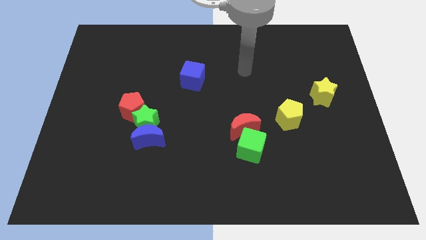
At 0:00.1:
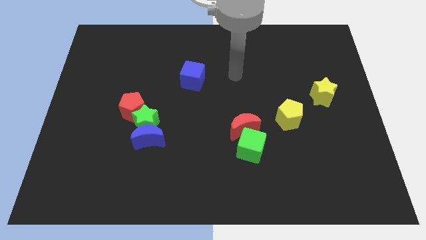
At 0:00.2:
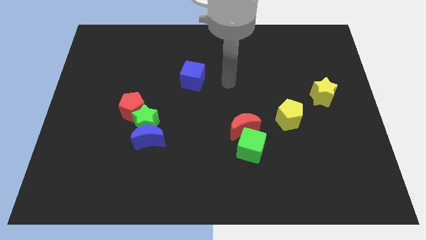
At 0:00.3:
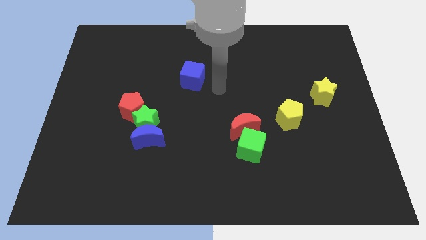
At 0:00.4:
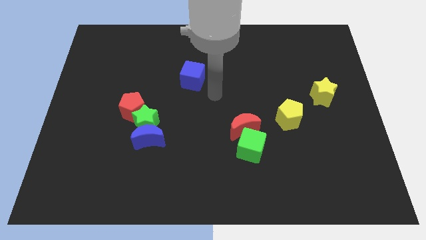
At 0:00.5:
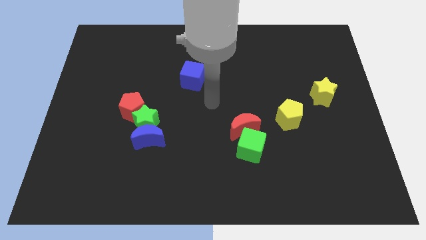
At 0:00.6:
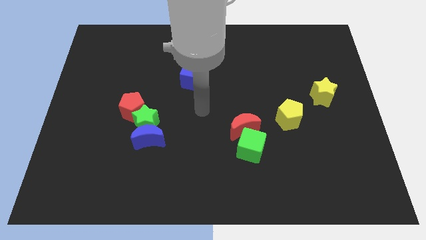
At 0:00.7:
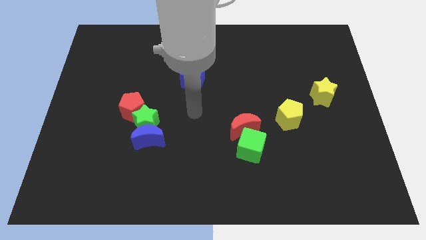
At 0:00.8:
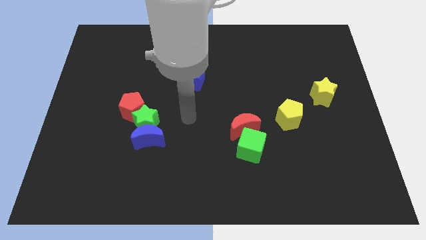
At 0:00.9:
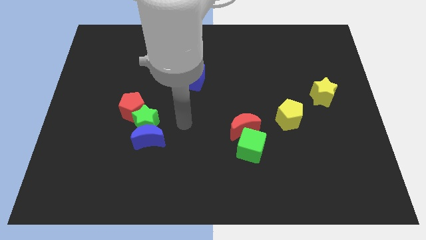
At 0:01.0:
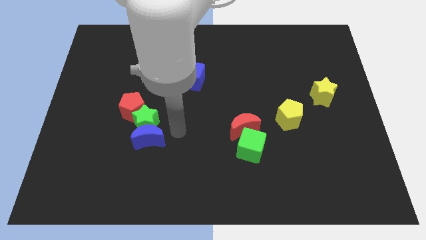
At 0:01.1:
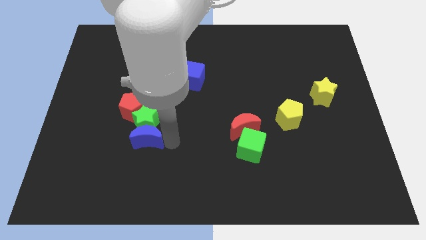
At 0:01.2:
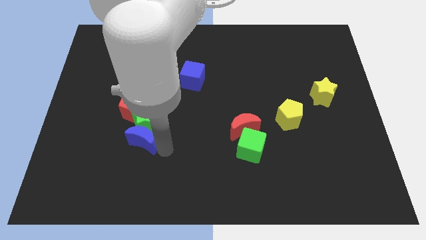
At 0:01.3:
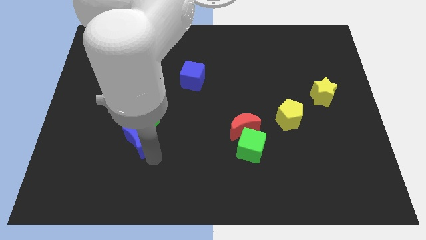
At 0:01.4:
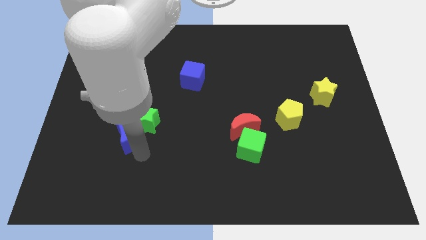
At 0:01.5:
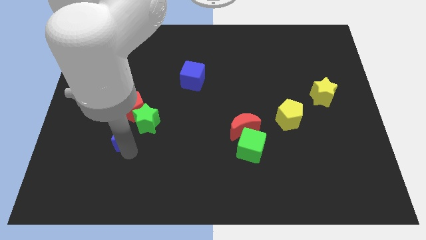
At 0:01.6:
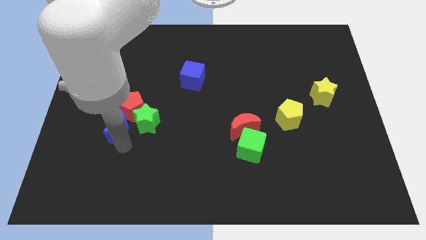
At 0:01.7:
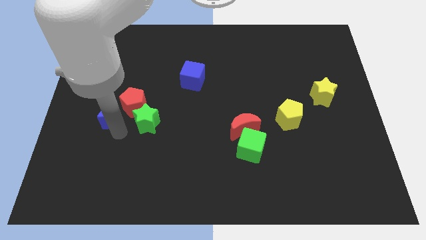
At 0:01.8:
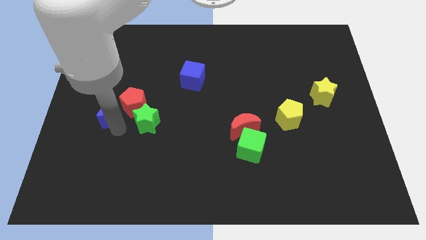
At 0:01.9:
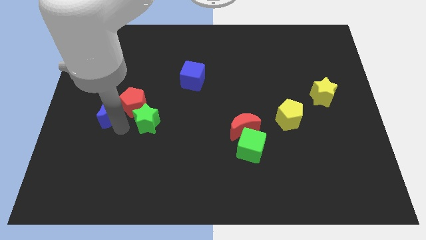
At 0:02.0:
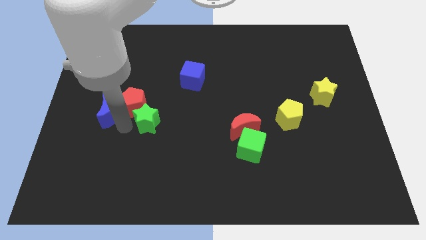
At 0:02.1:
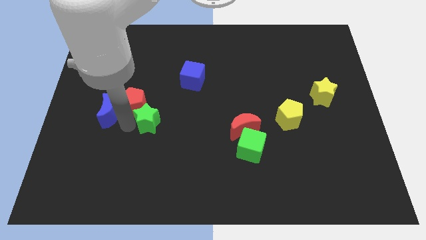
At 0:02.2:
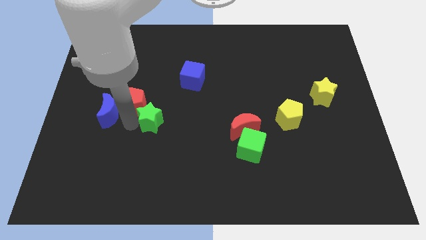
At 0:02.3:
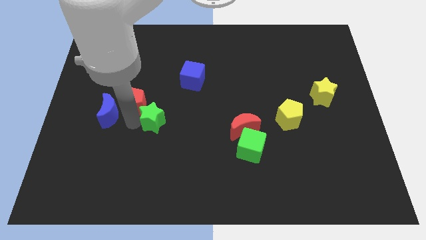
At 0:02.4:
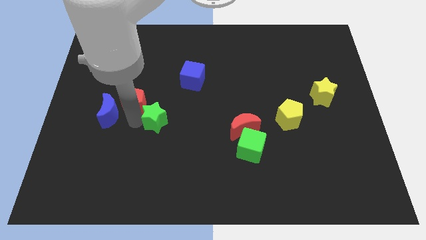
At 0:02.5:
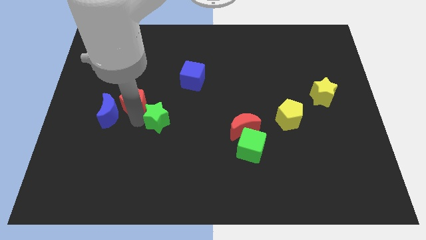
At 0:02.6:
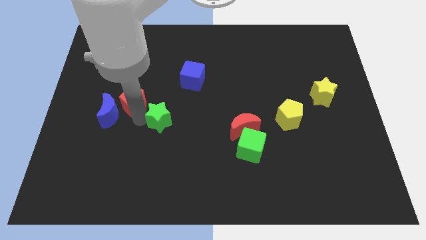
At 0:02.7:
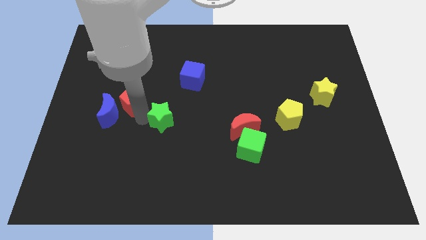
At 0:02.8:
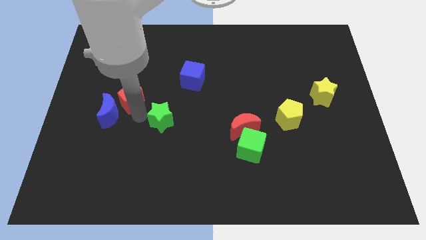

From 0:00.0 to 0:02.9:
pull the green star apart from the blue moon and red pentagon

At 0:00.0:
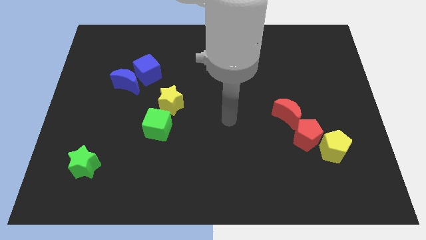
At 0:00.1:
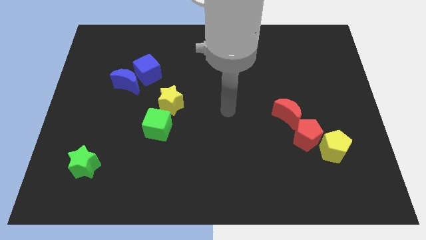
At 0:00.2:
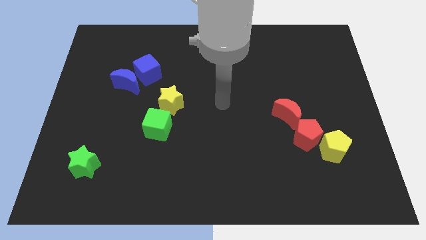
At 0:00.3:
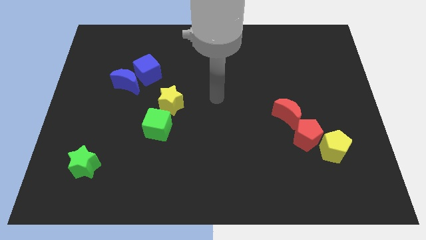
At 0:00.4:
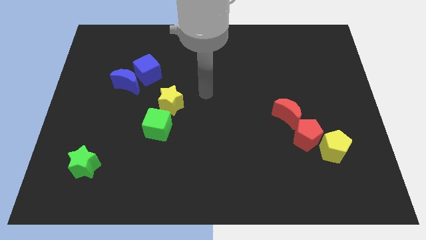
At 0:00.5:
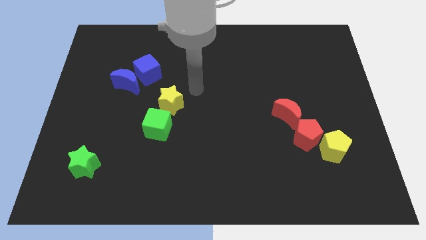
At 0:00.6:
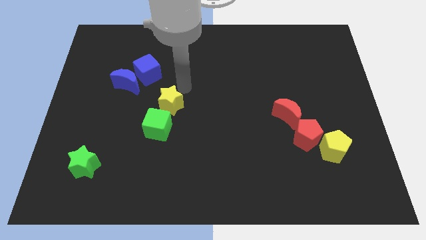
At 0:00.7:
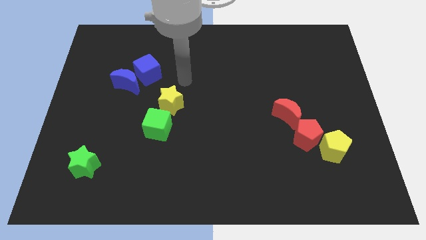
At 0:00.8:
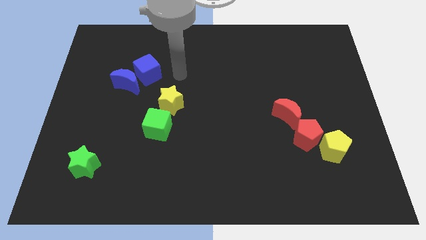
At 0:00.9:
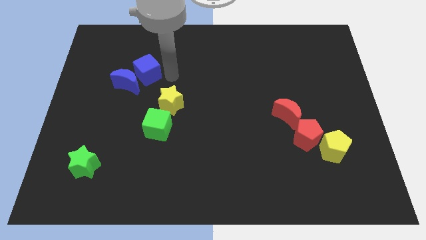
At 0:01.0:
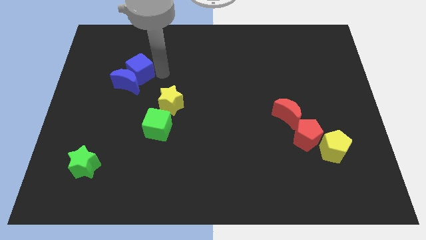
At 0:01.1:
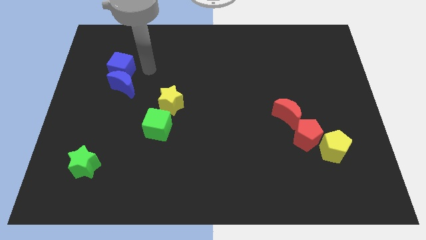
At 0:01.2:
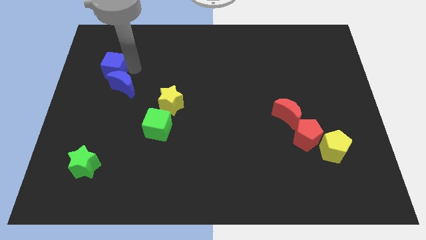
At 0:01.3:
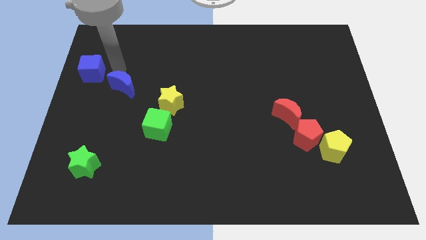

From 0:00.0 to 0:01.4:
move the blue moon away from the blue cube

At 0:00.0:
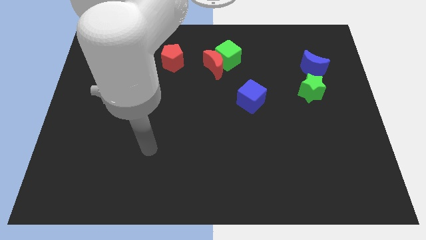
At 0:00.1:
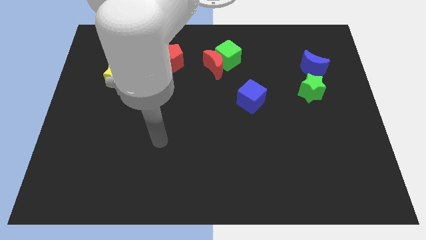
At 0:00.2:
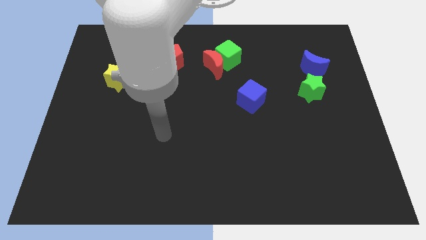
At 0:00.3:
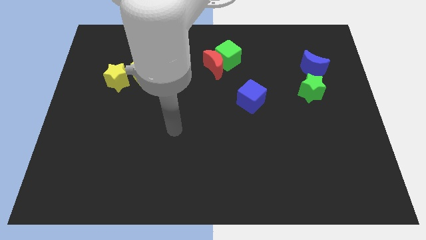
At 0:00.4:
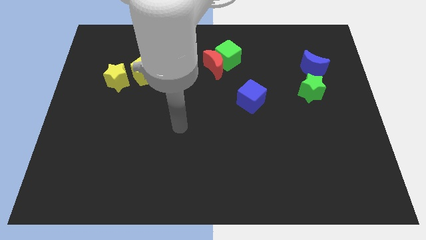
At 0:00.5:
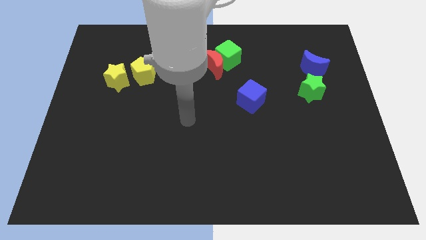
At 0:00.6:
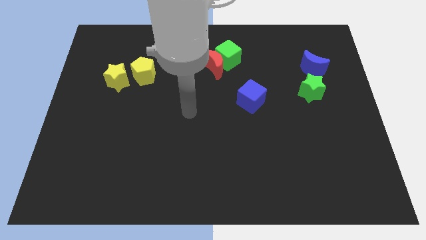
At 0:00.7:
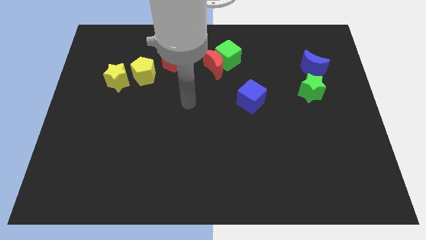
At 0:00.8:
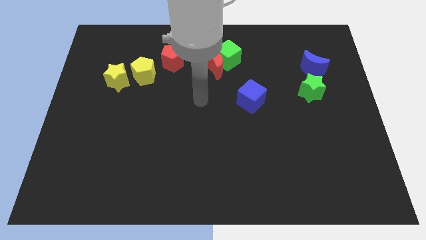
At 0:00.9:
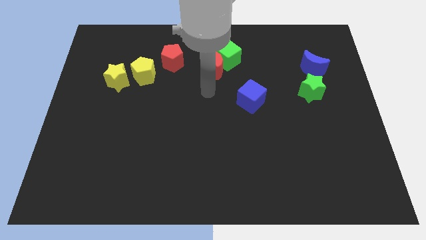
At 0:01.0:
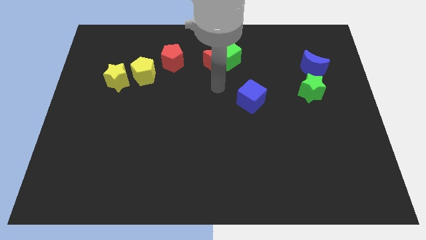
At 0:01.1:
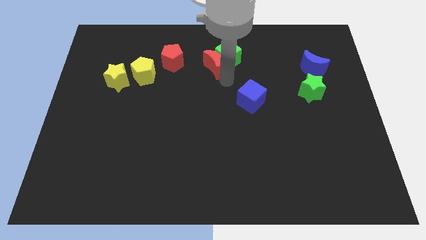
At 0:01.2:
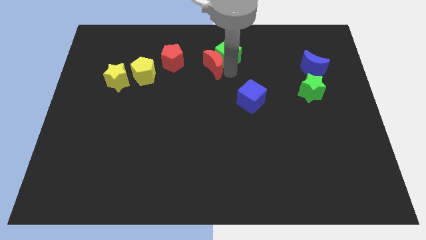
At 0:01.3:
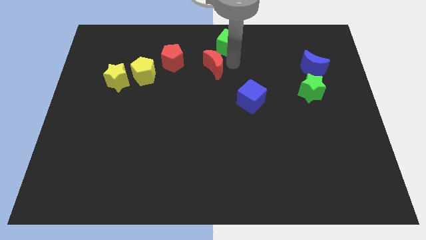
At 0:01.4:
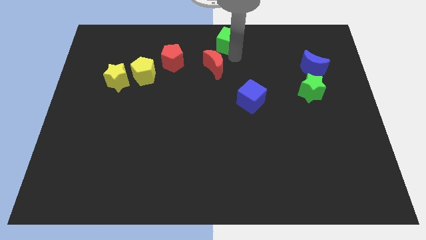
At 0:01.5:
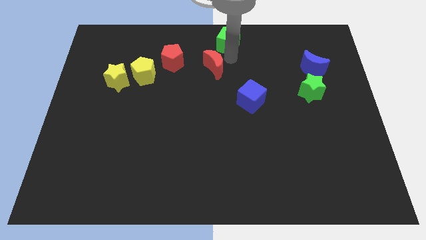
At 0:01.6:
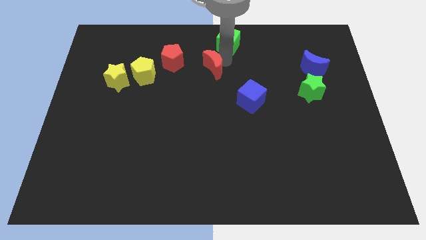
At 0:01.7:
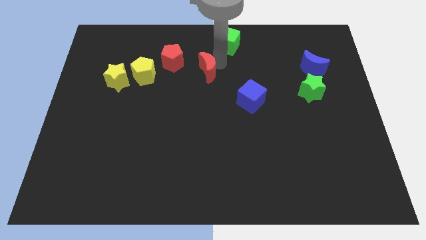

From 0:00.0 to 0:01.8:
pull the red moon apart from the green cube

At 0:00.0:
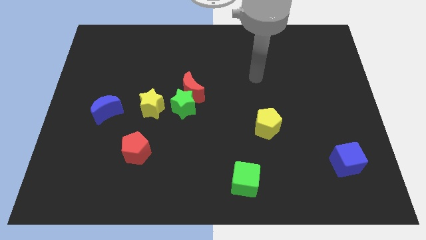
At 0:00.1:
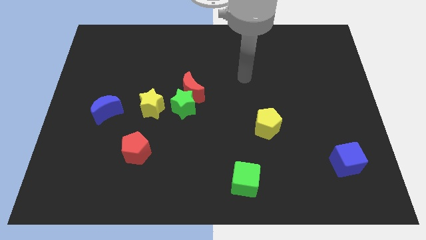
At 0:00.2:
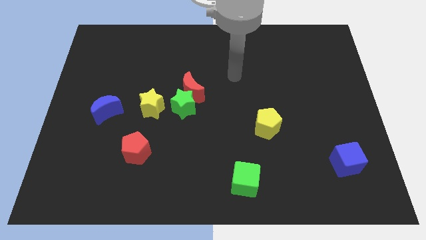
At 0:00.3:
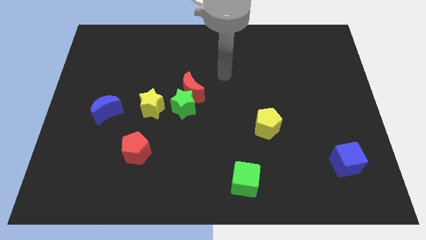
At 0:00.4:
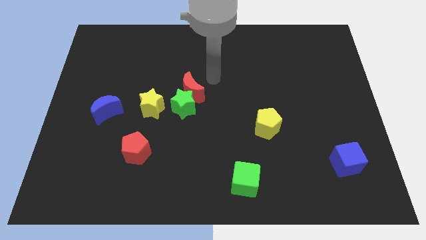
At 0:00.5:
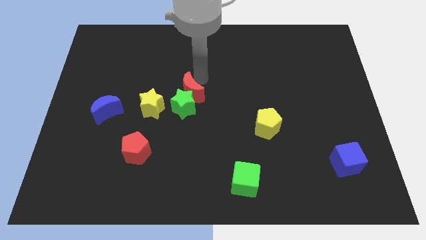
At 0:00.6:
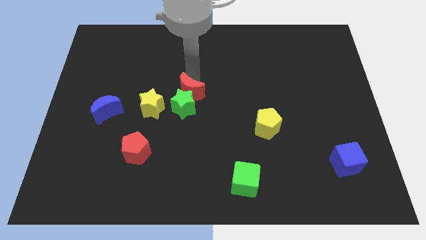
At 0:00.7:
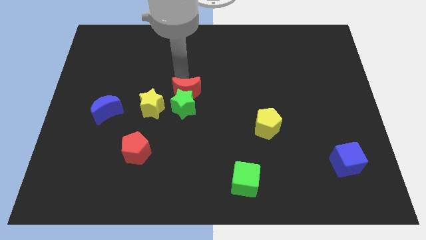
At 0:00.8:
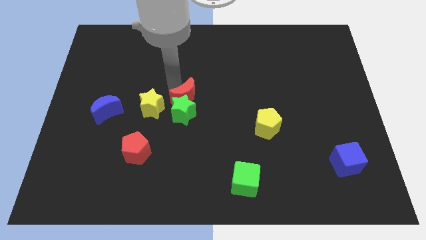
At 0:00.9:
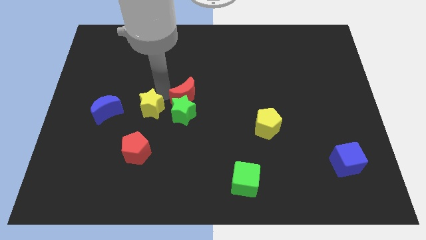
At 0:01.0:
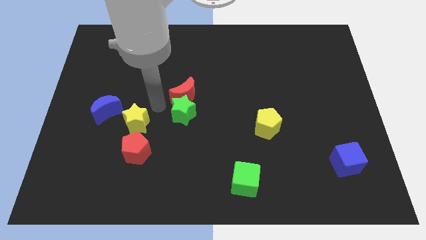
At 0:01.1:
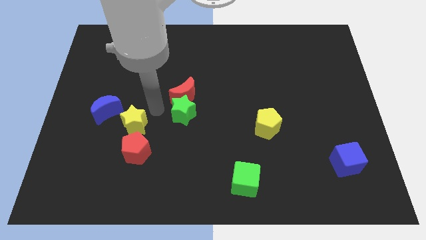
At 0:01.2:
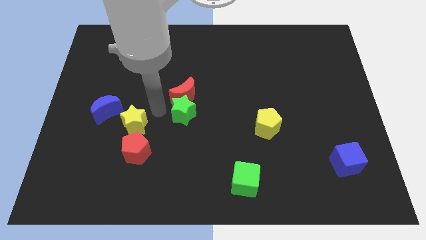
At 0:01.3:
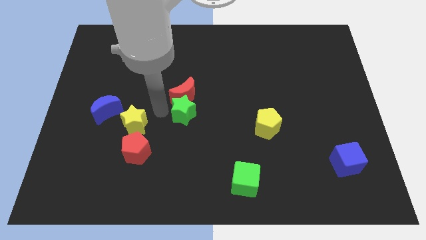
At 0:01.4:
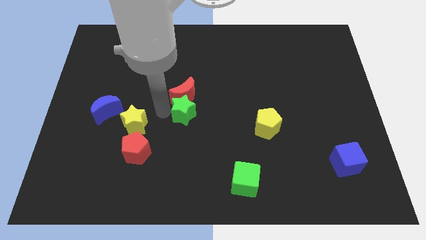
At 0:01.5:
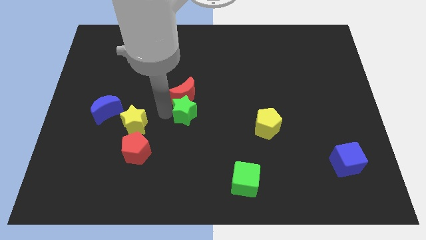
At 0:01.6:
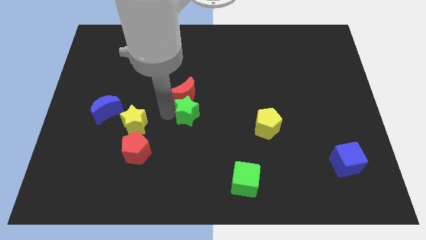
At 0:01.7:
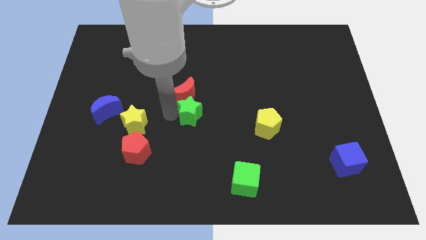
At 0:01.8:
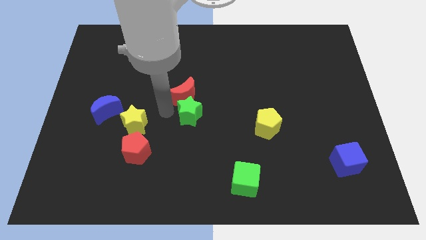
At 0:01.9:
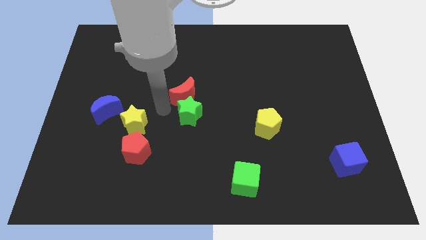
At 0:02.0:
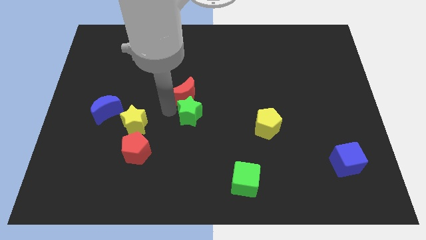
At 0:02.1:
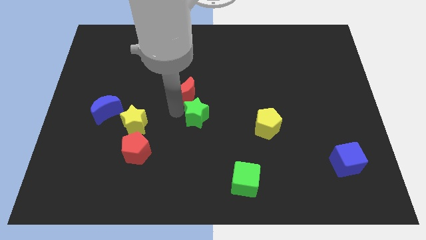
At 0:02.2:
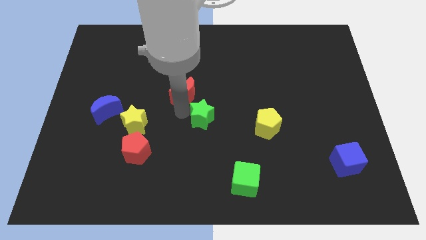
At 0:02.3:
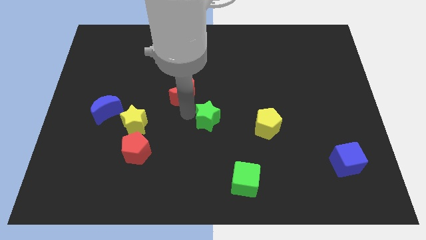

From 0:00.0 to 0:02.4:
pull the green star apart from the red moon and yellow star

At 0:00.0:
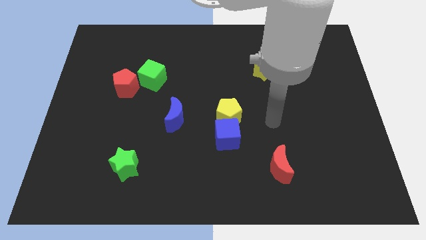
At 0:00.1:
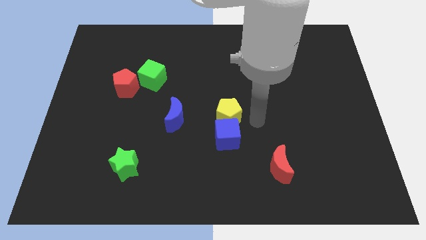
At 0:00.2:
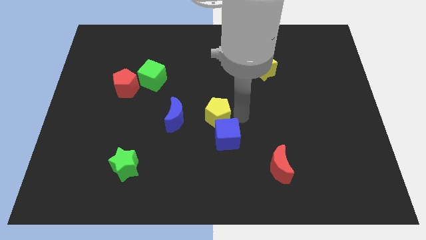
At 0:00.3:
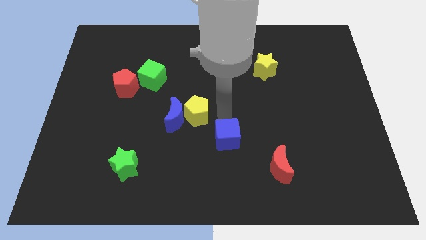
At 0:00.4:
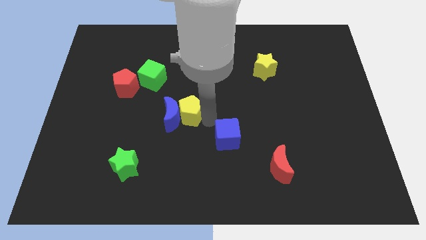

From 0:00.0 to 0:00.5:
separate the blue cube from the yellow pentagon

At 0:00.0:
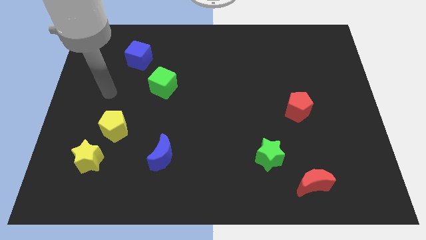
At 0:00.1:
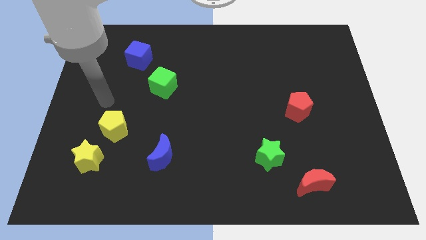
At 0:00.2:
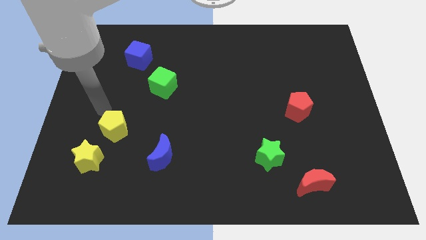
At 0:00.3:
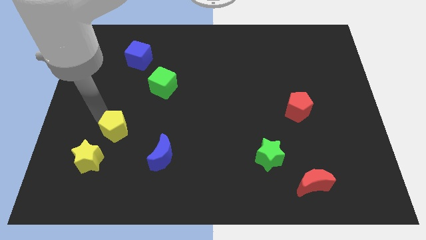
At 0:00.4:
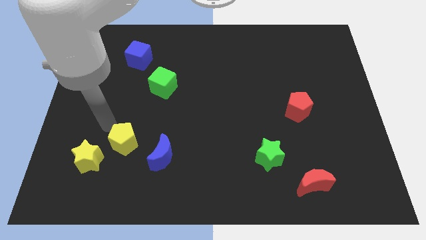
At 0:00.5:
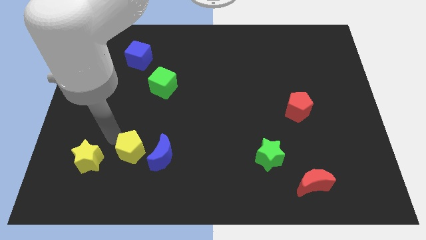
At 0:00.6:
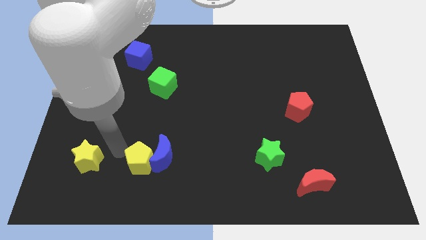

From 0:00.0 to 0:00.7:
move the yellow star away from the yellow pentagon
